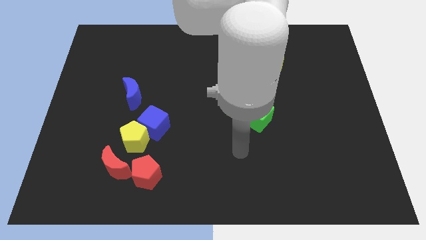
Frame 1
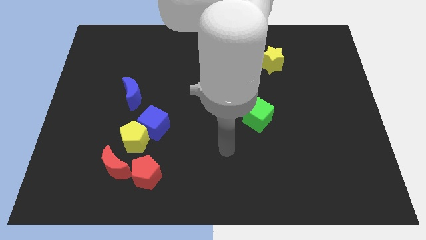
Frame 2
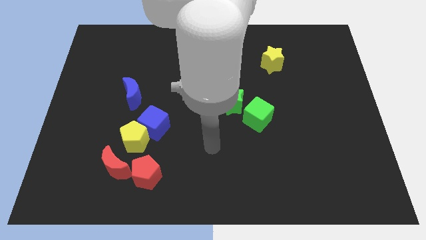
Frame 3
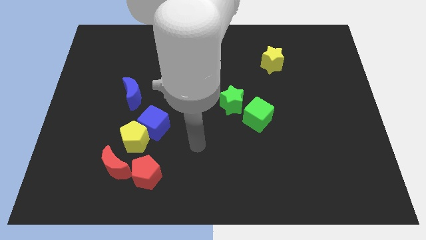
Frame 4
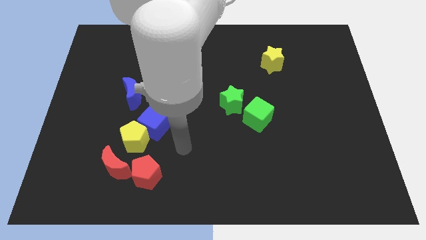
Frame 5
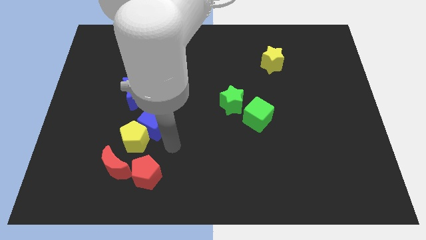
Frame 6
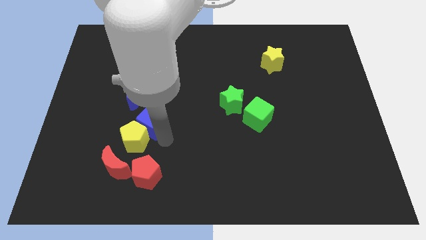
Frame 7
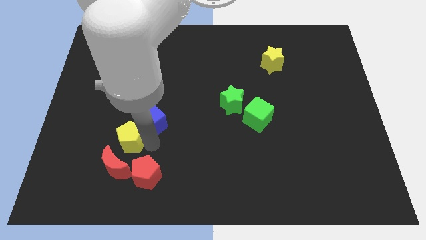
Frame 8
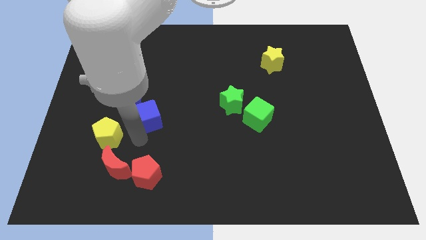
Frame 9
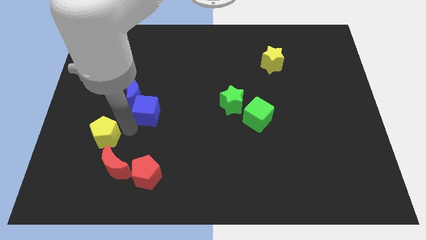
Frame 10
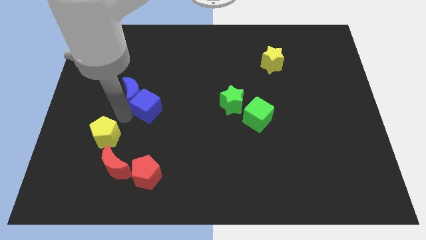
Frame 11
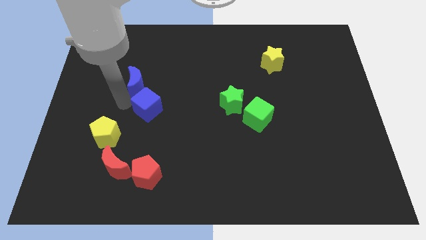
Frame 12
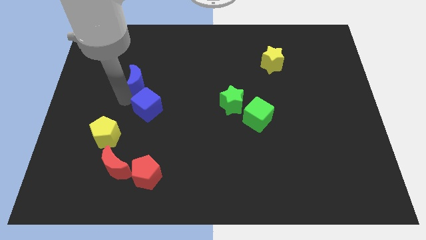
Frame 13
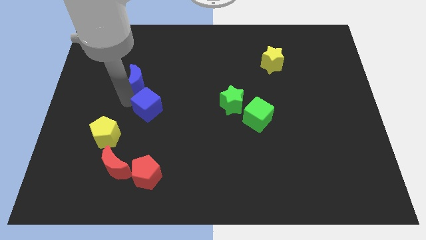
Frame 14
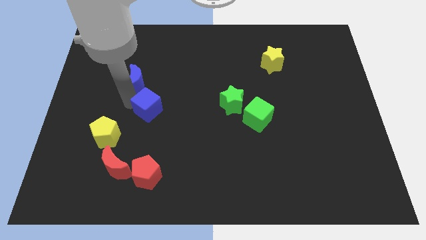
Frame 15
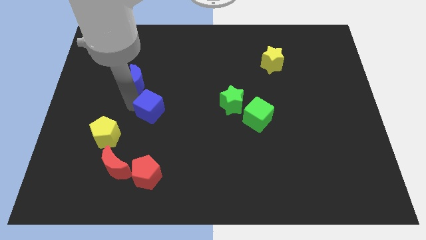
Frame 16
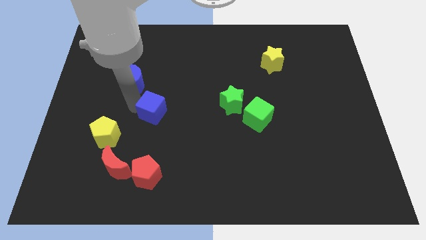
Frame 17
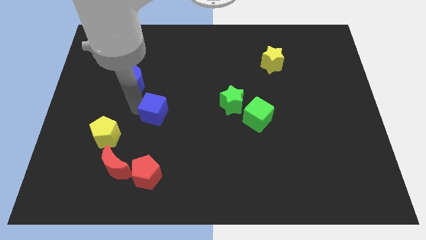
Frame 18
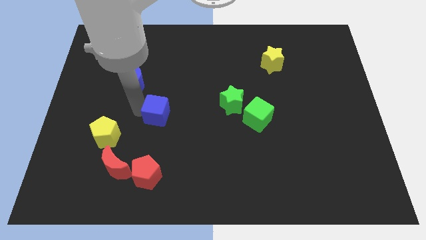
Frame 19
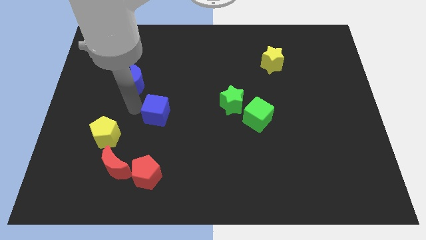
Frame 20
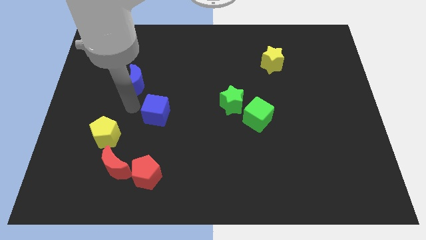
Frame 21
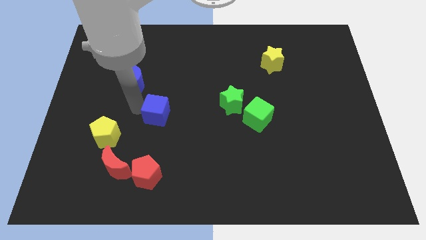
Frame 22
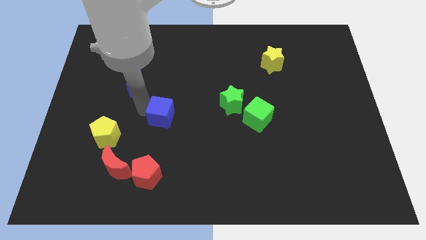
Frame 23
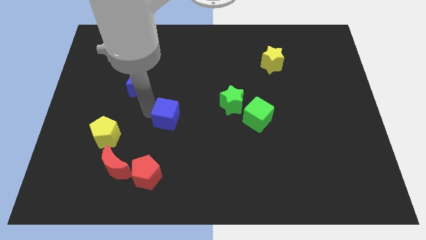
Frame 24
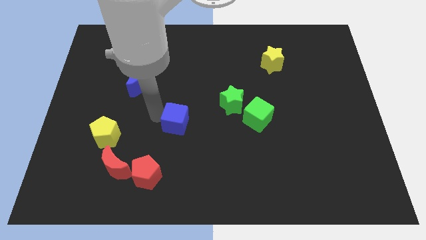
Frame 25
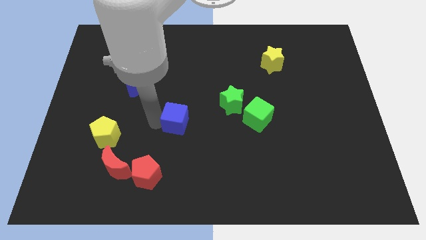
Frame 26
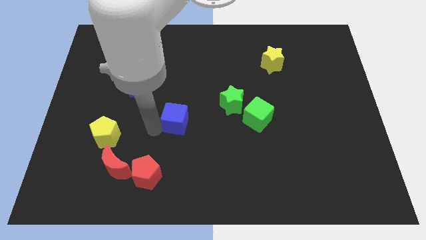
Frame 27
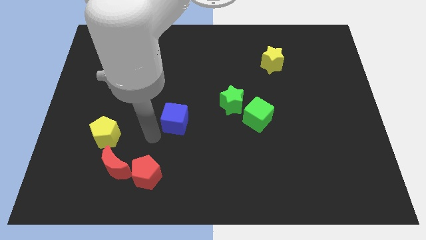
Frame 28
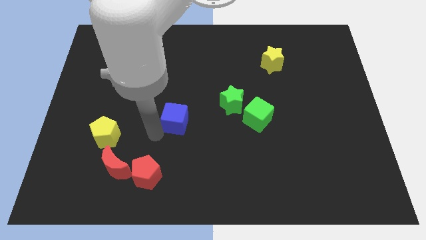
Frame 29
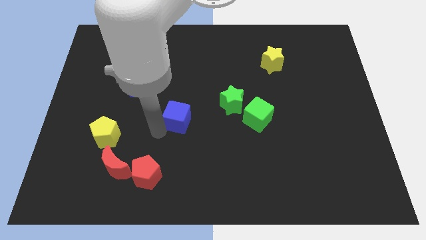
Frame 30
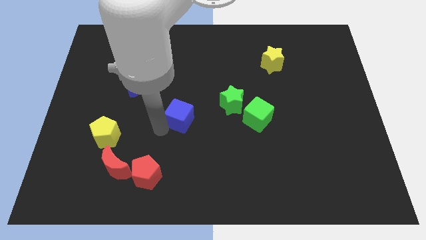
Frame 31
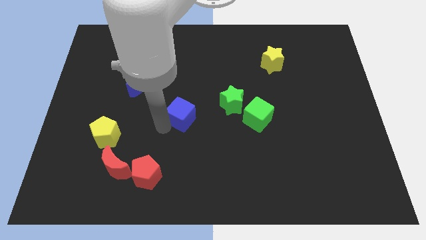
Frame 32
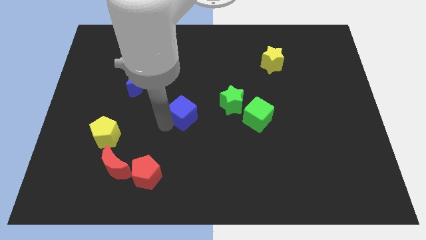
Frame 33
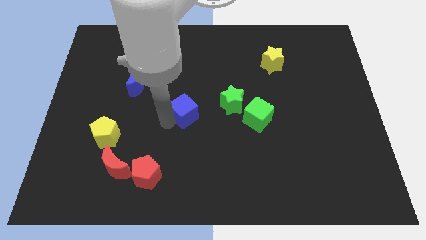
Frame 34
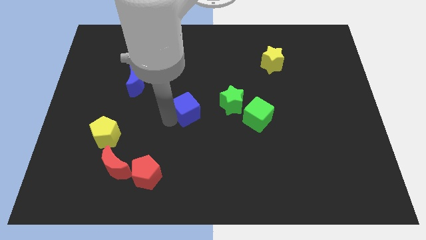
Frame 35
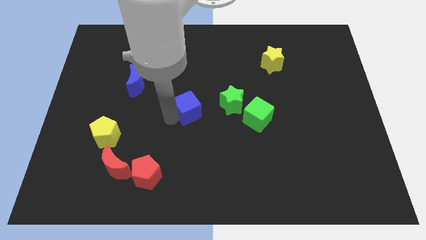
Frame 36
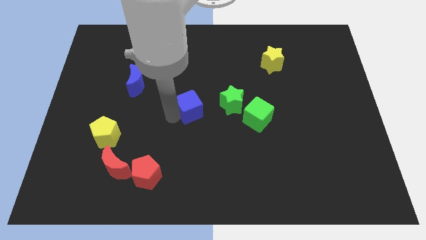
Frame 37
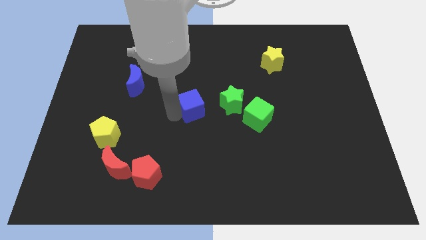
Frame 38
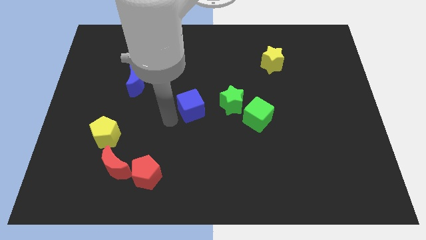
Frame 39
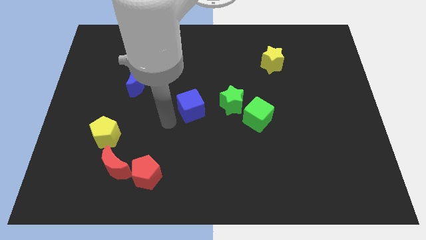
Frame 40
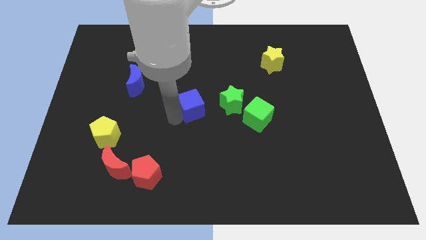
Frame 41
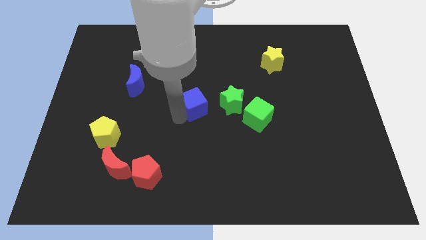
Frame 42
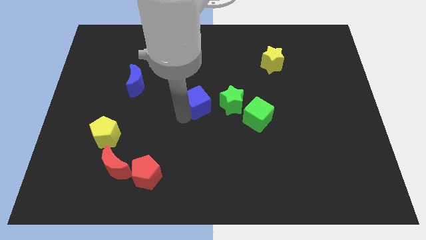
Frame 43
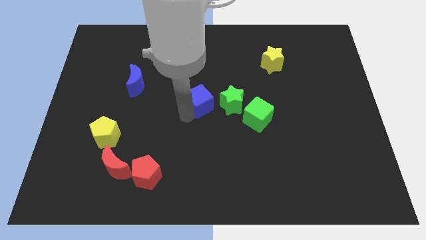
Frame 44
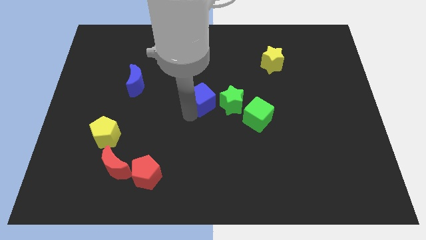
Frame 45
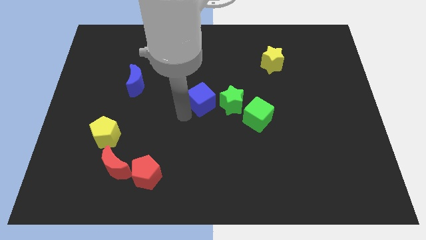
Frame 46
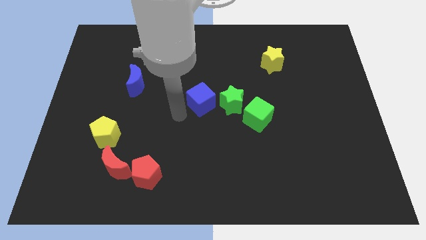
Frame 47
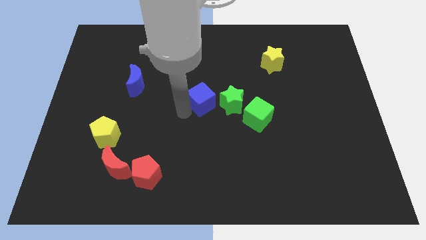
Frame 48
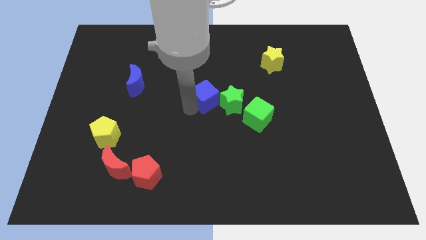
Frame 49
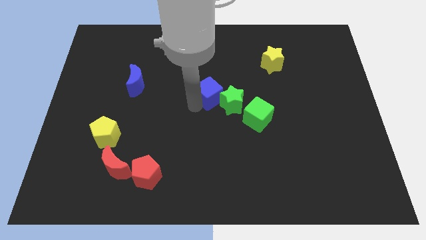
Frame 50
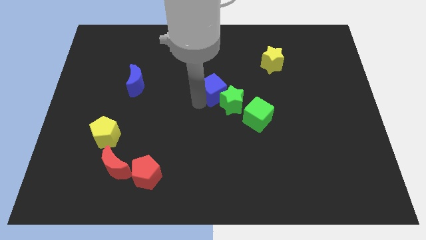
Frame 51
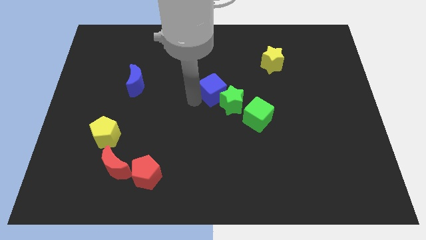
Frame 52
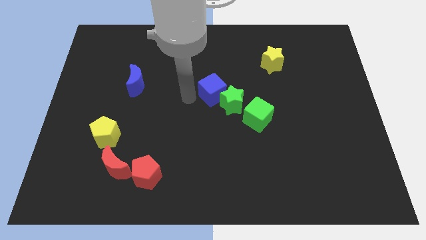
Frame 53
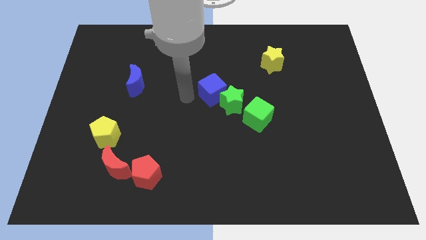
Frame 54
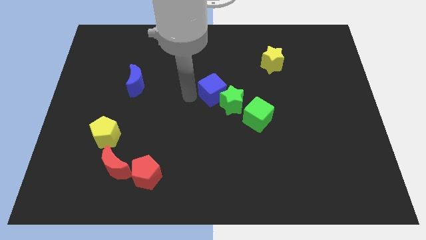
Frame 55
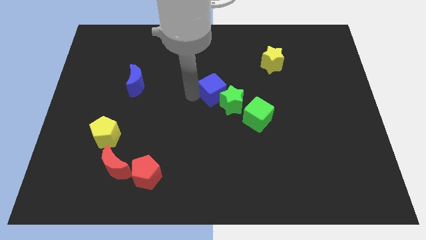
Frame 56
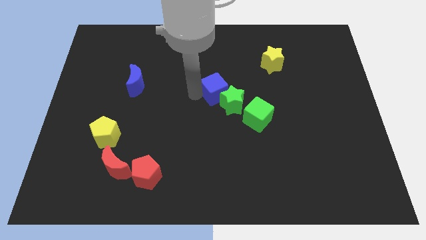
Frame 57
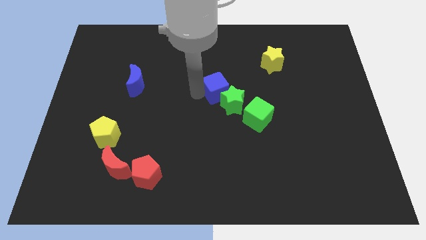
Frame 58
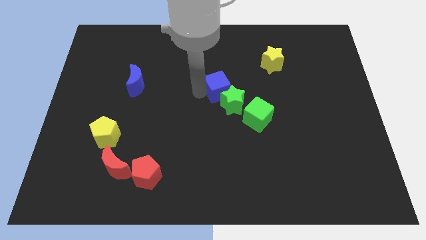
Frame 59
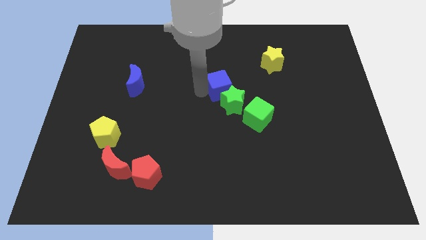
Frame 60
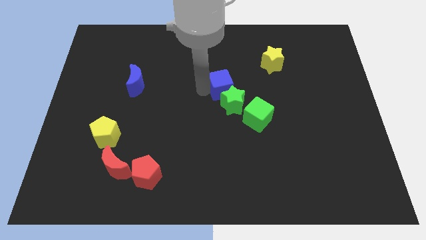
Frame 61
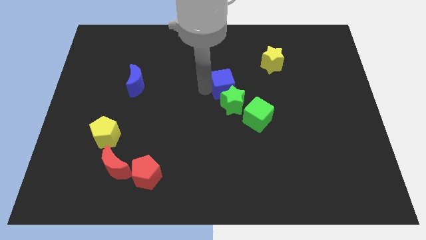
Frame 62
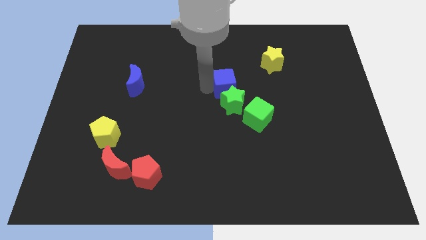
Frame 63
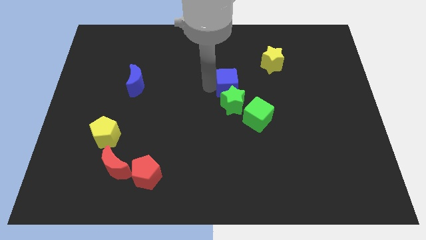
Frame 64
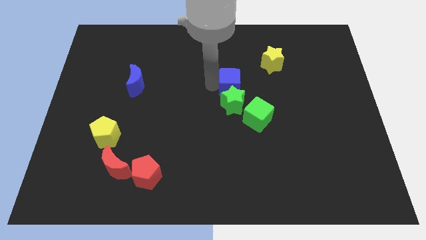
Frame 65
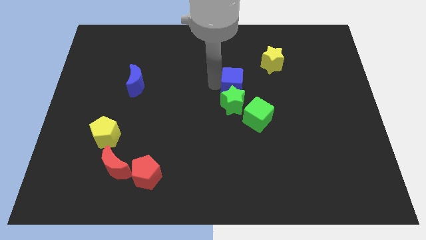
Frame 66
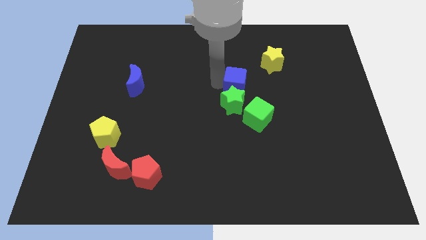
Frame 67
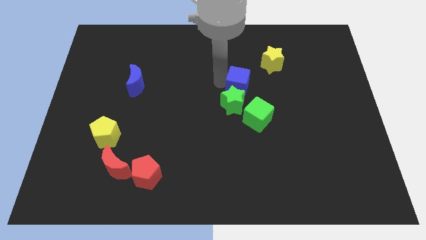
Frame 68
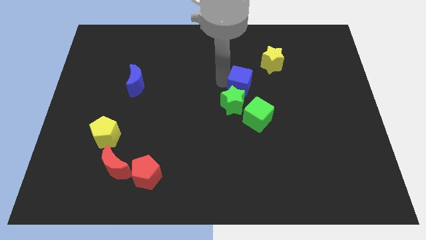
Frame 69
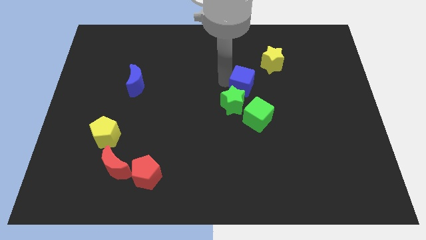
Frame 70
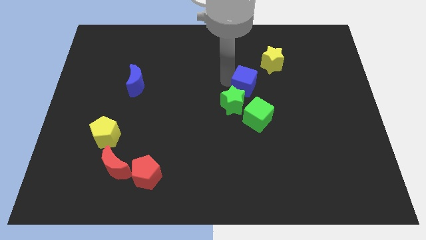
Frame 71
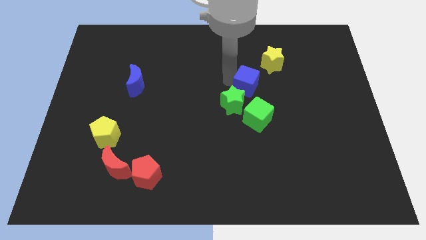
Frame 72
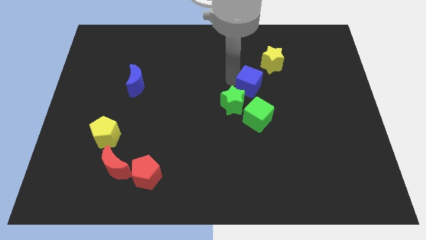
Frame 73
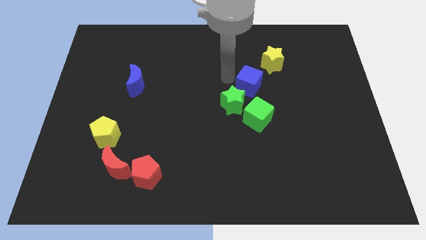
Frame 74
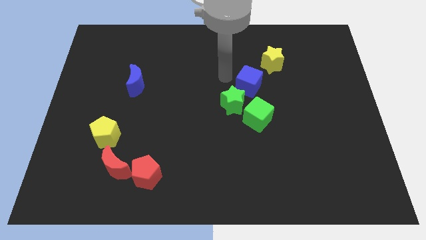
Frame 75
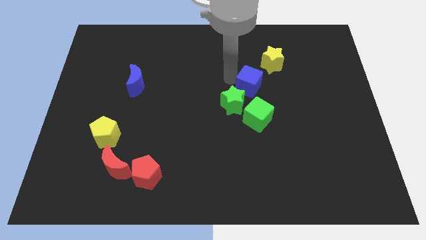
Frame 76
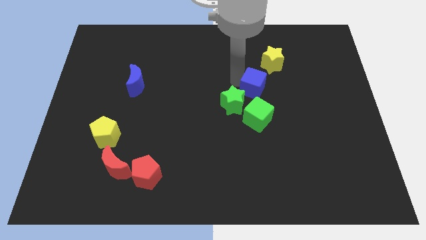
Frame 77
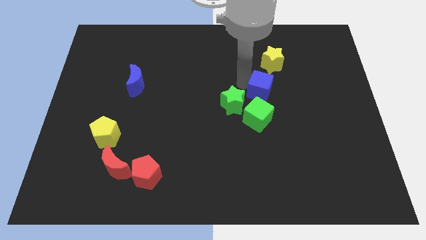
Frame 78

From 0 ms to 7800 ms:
put the blue cube below the yellow star
